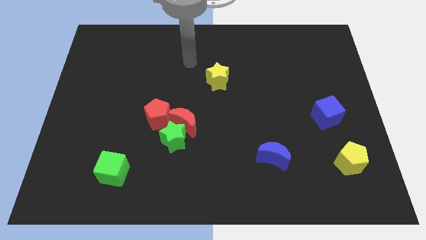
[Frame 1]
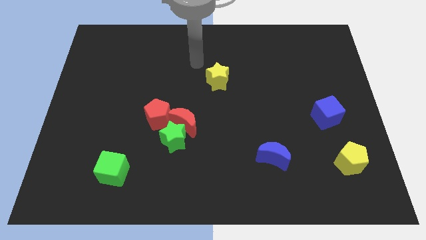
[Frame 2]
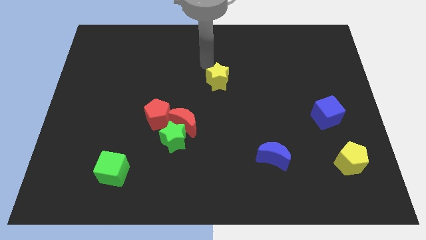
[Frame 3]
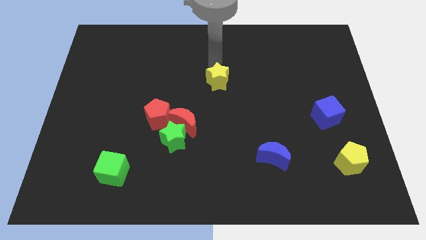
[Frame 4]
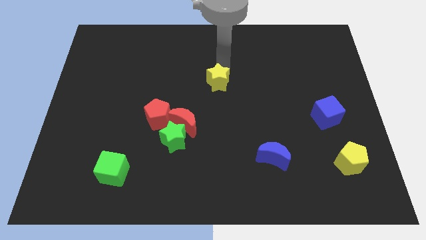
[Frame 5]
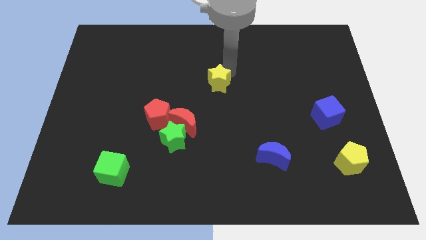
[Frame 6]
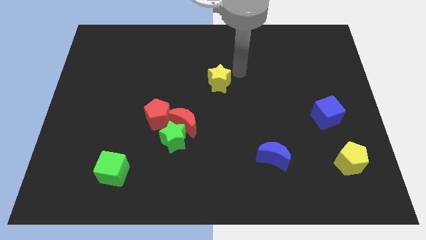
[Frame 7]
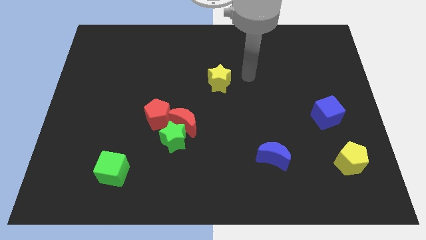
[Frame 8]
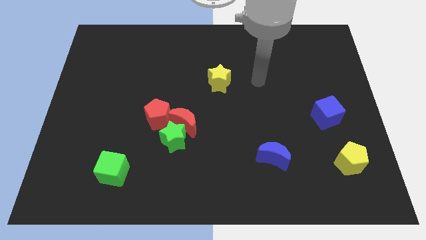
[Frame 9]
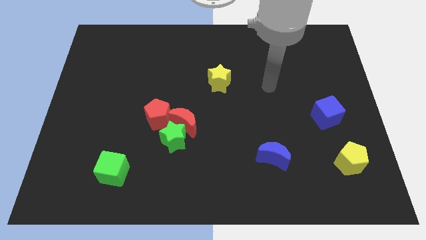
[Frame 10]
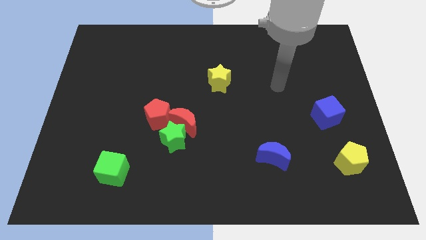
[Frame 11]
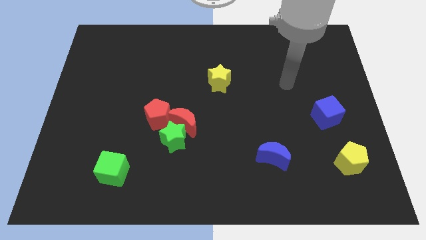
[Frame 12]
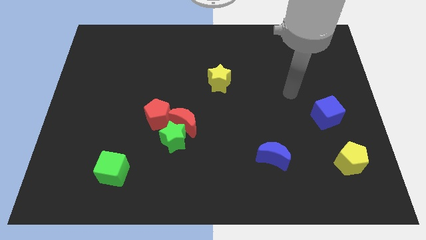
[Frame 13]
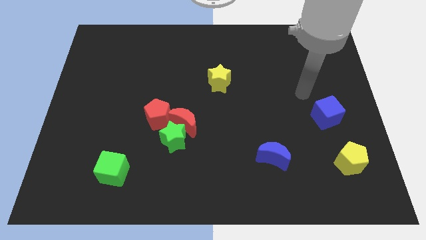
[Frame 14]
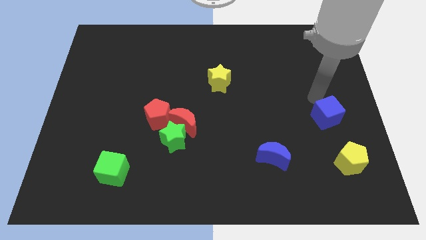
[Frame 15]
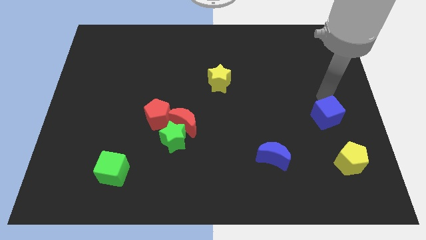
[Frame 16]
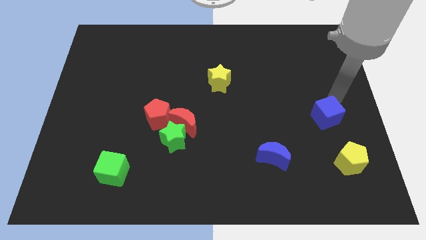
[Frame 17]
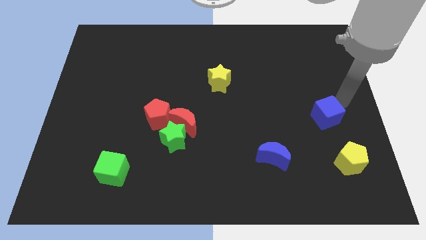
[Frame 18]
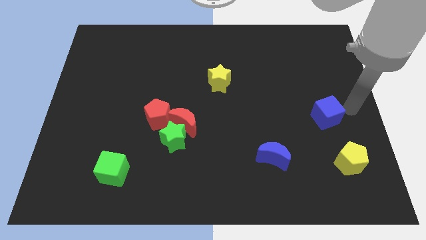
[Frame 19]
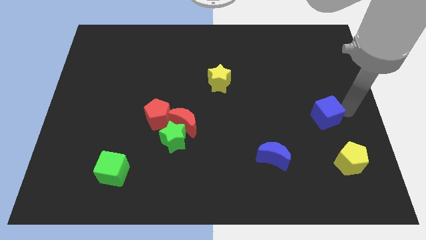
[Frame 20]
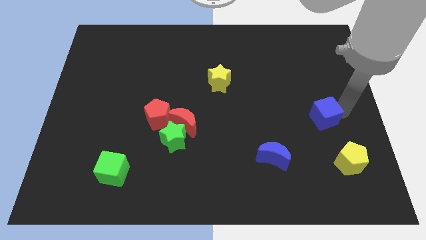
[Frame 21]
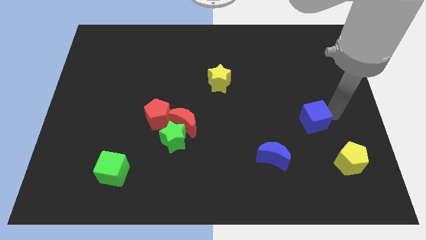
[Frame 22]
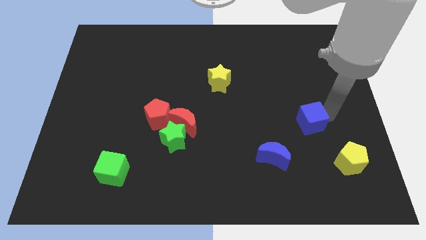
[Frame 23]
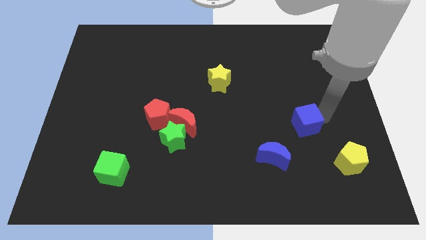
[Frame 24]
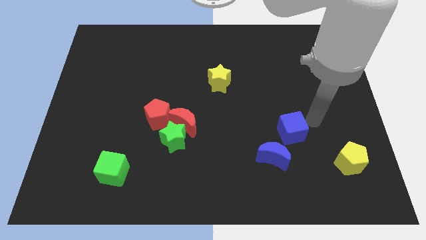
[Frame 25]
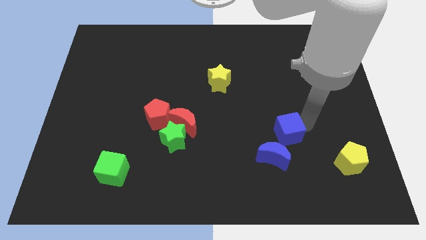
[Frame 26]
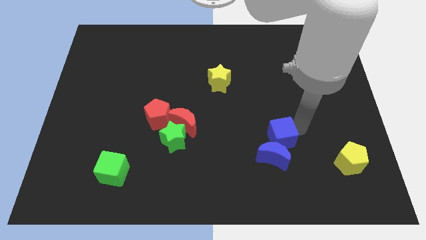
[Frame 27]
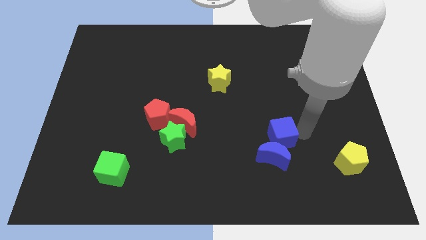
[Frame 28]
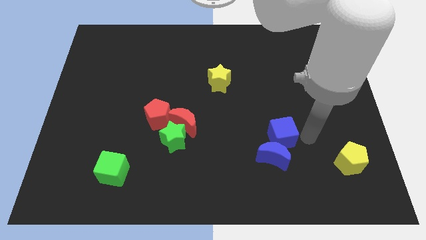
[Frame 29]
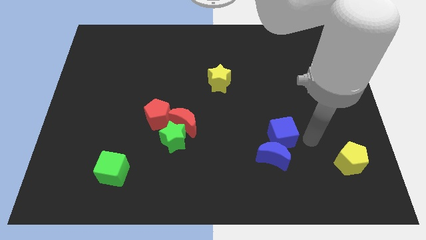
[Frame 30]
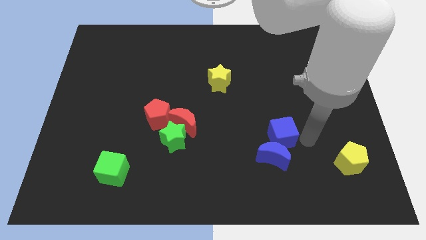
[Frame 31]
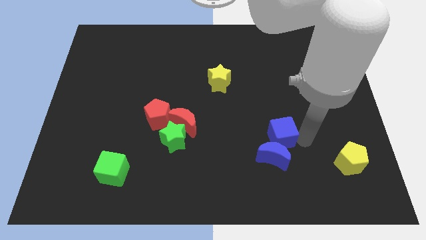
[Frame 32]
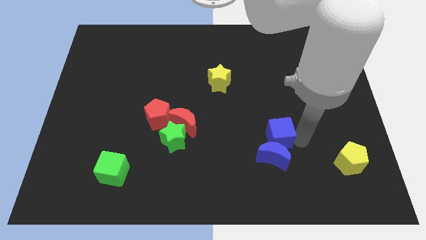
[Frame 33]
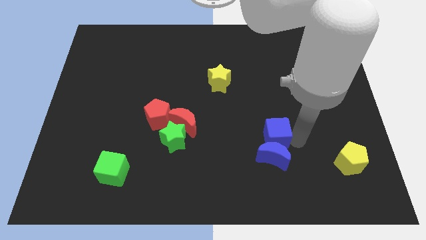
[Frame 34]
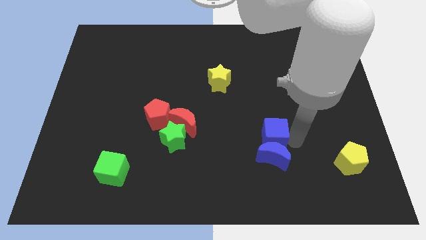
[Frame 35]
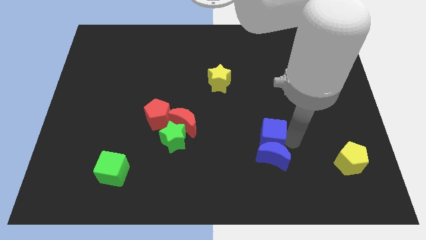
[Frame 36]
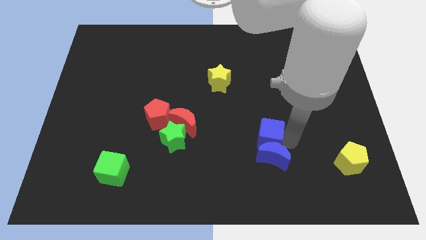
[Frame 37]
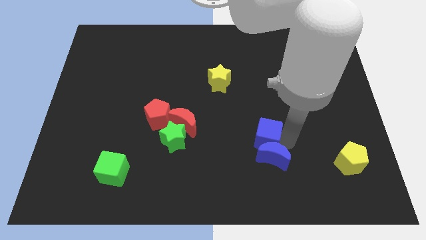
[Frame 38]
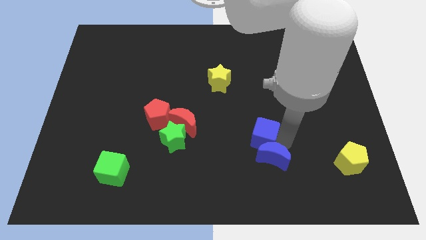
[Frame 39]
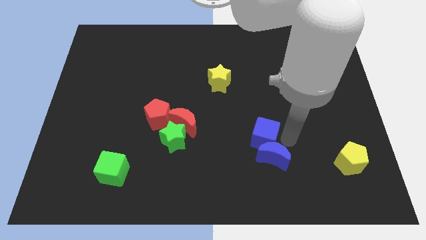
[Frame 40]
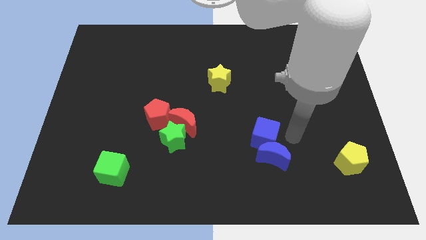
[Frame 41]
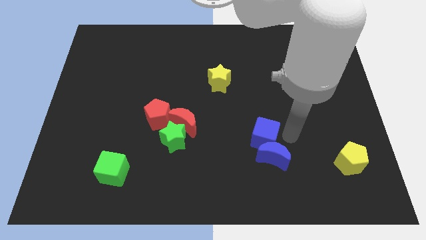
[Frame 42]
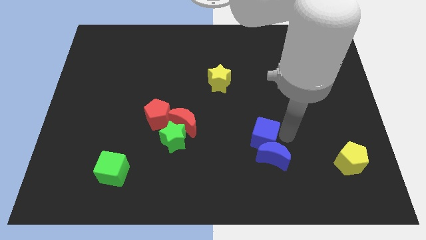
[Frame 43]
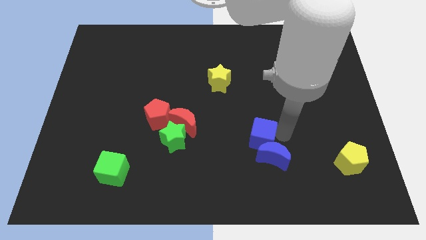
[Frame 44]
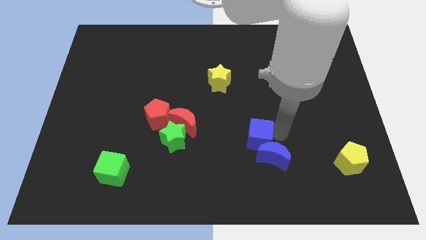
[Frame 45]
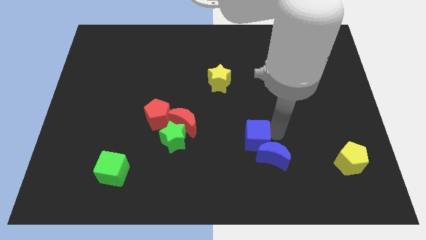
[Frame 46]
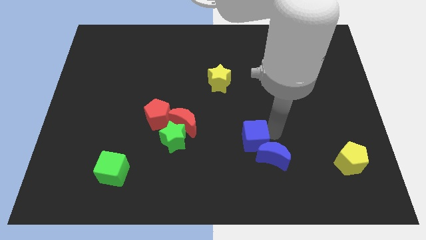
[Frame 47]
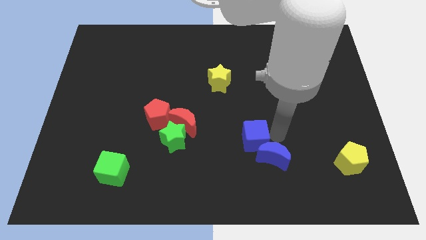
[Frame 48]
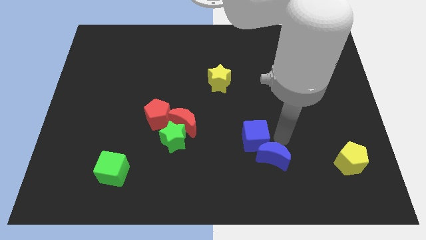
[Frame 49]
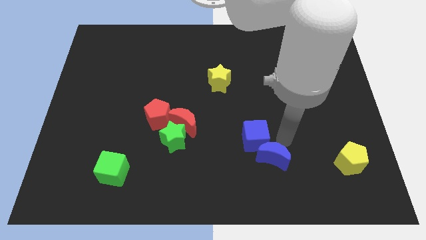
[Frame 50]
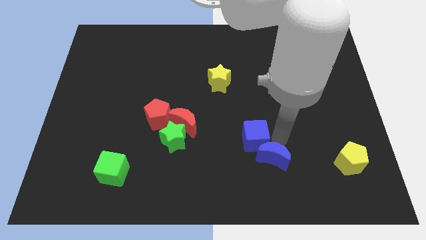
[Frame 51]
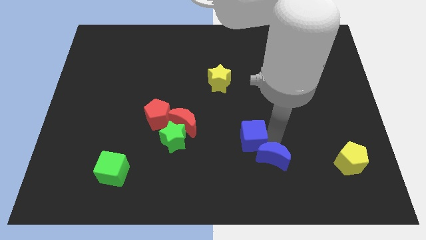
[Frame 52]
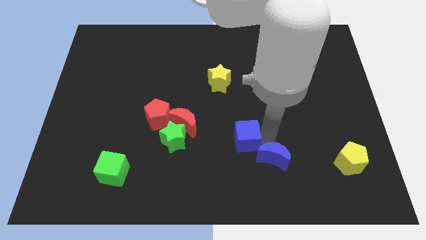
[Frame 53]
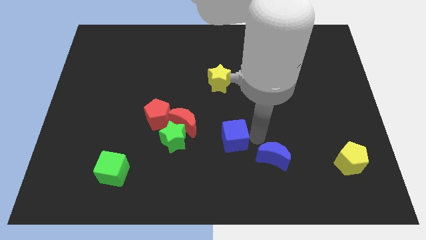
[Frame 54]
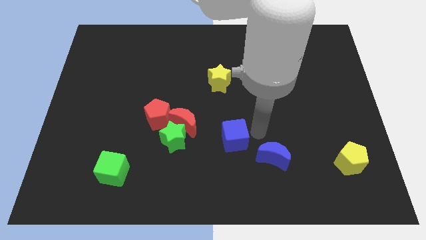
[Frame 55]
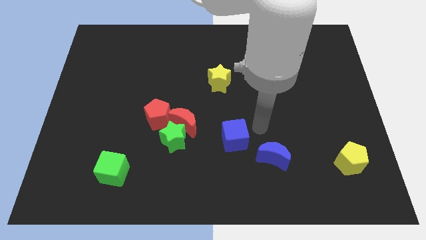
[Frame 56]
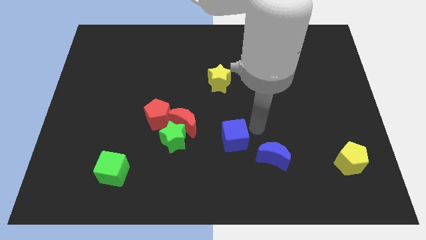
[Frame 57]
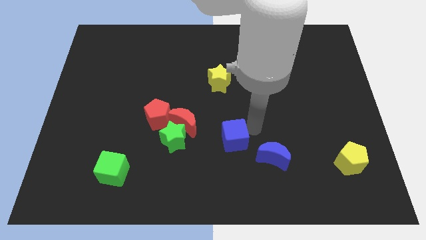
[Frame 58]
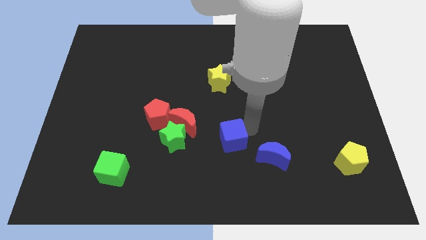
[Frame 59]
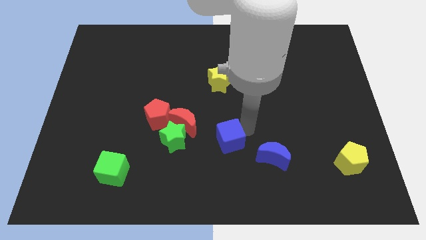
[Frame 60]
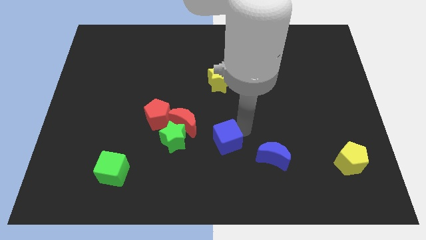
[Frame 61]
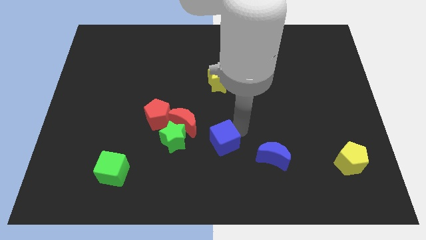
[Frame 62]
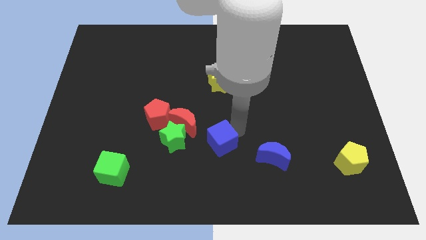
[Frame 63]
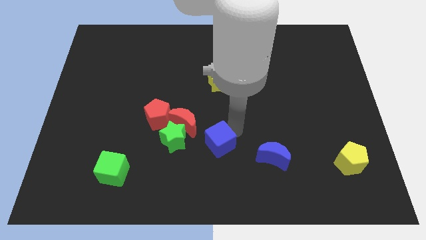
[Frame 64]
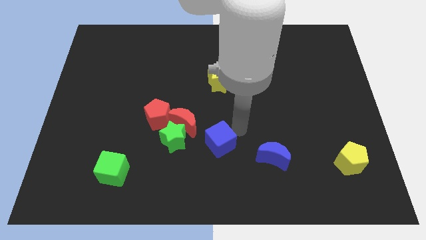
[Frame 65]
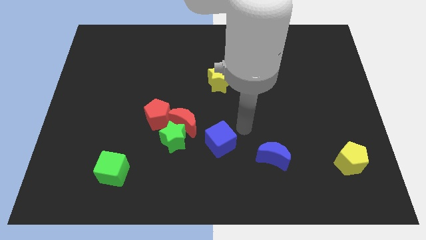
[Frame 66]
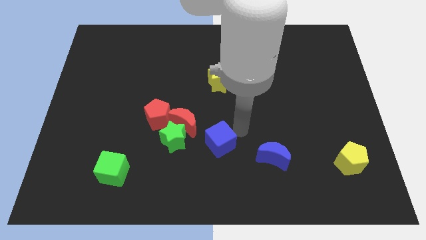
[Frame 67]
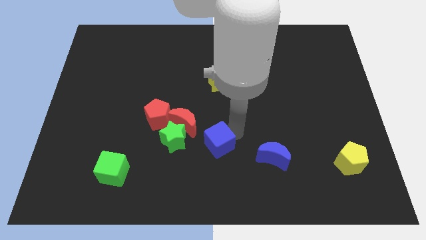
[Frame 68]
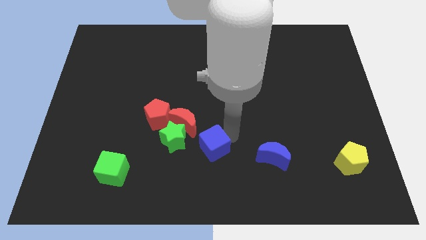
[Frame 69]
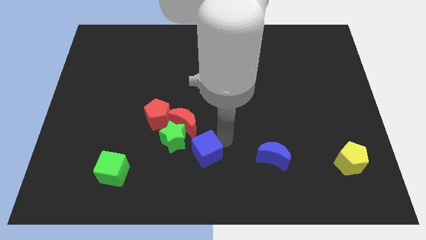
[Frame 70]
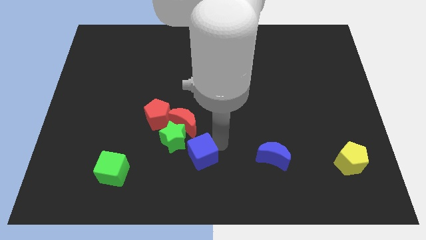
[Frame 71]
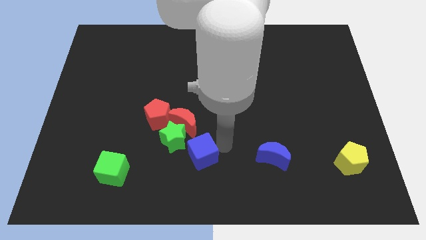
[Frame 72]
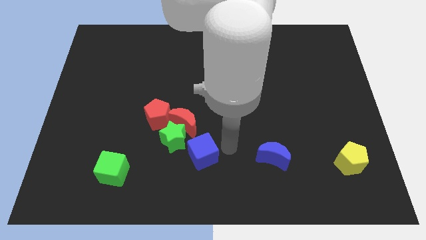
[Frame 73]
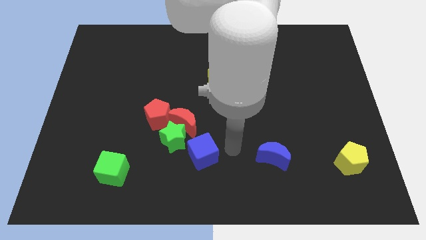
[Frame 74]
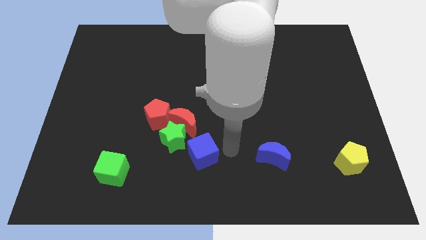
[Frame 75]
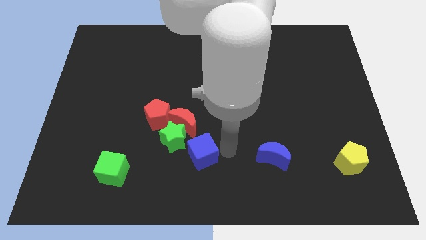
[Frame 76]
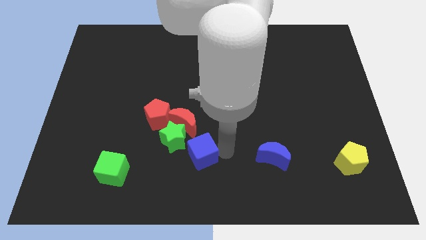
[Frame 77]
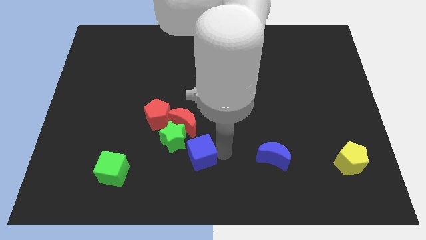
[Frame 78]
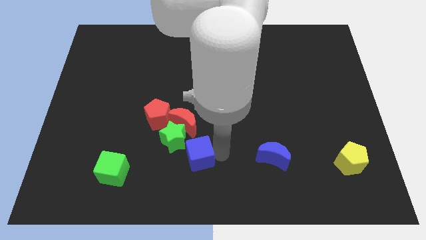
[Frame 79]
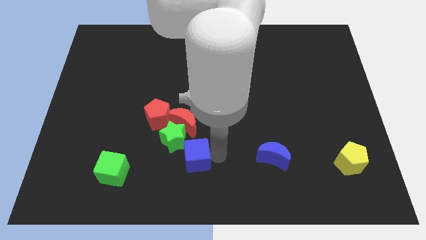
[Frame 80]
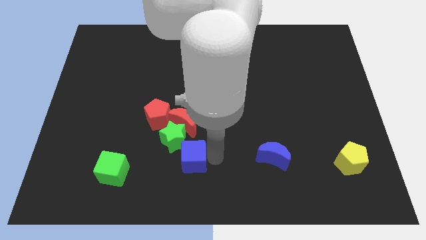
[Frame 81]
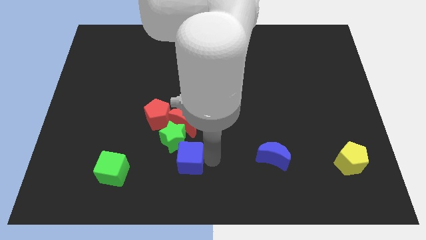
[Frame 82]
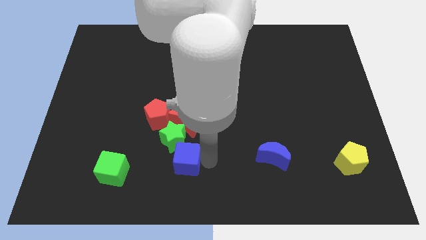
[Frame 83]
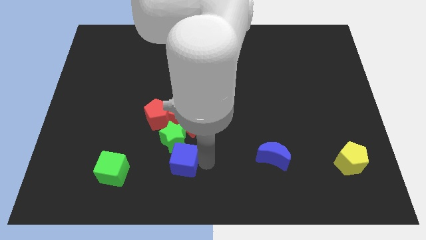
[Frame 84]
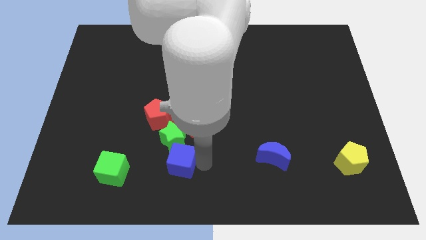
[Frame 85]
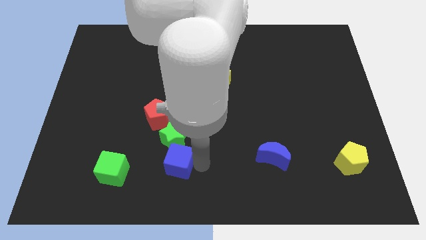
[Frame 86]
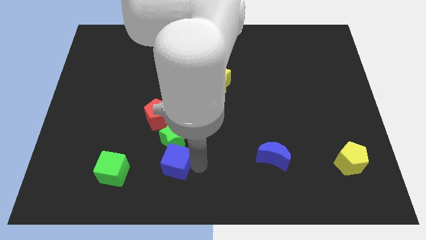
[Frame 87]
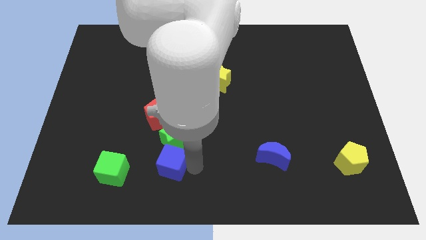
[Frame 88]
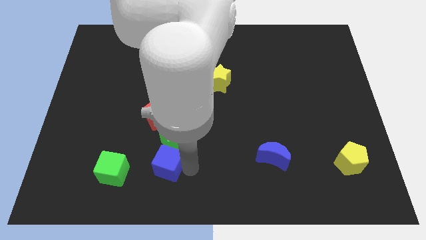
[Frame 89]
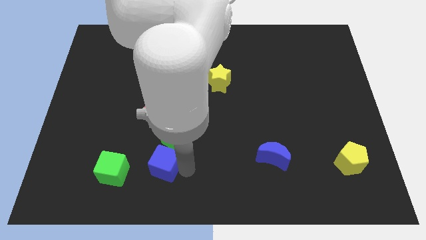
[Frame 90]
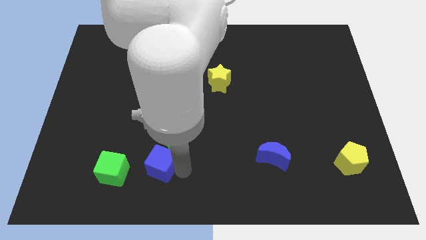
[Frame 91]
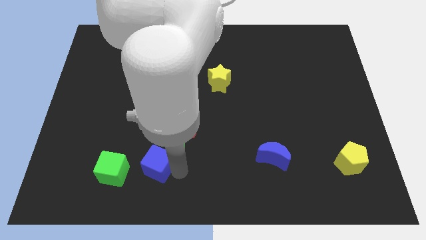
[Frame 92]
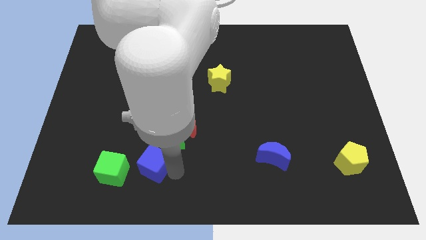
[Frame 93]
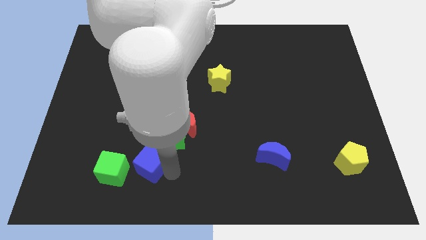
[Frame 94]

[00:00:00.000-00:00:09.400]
put the blue cube to the top right of the green cube
